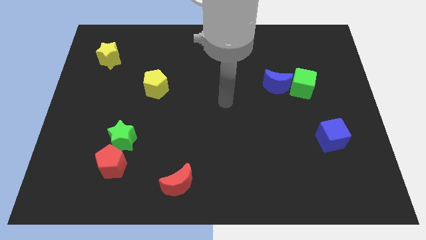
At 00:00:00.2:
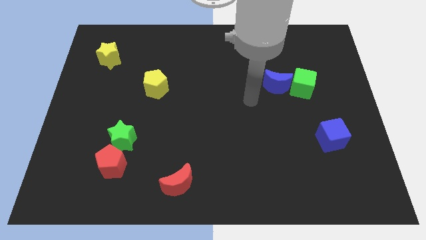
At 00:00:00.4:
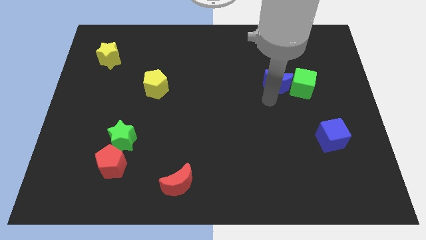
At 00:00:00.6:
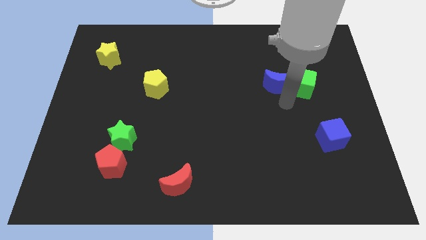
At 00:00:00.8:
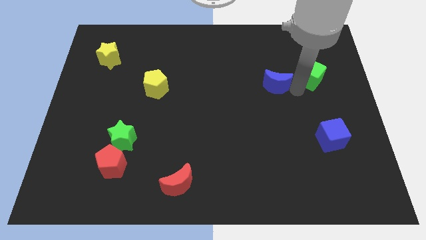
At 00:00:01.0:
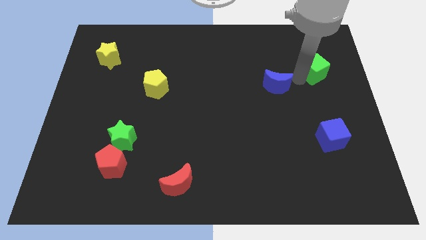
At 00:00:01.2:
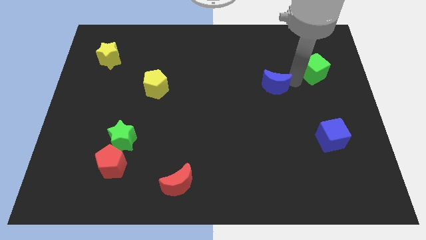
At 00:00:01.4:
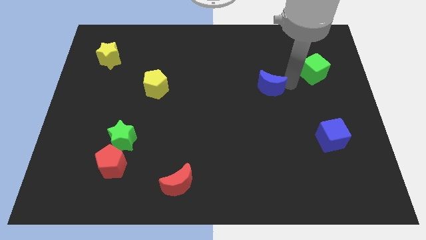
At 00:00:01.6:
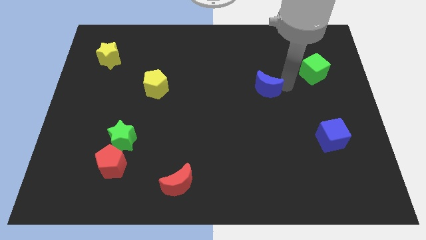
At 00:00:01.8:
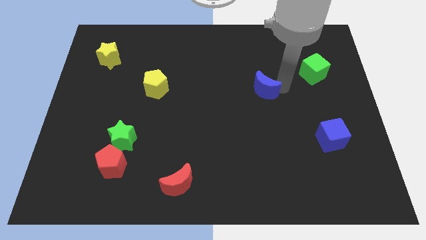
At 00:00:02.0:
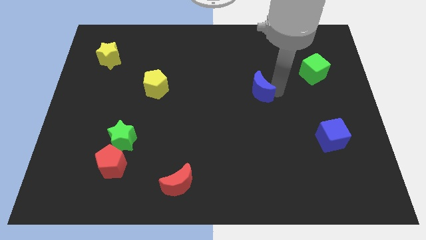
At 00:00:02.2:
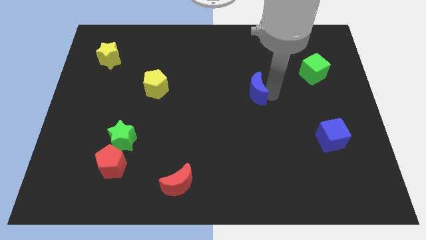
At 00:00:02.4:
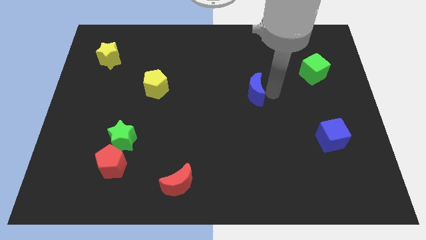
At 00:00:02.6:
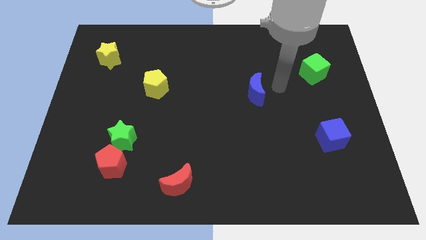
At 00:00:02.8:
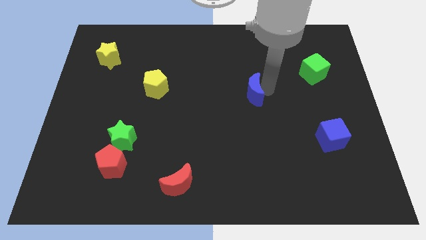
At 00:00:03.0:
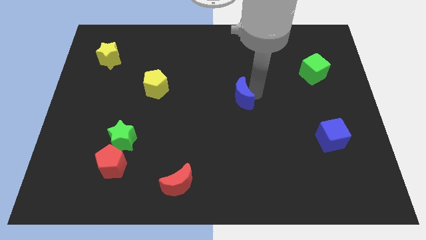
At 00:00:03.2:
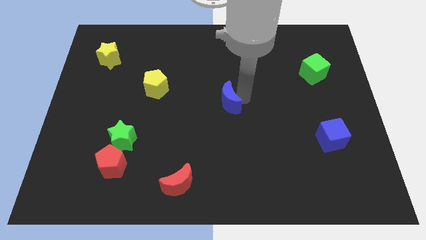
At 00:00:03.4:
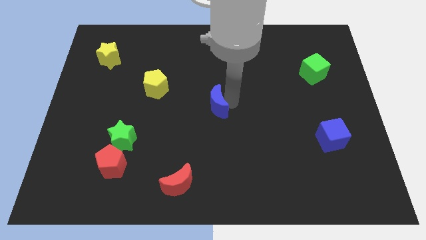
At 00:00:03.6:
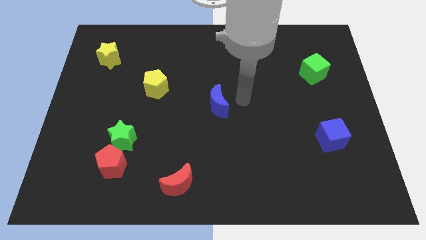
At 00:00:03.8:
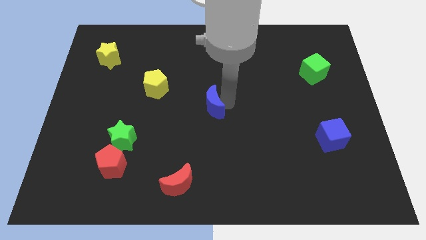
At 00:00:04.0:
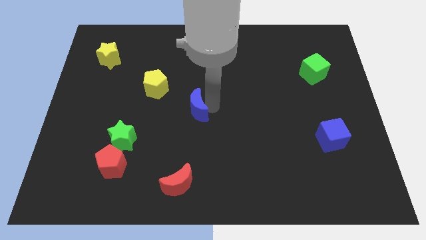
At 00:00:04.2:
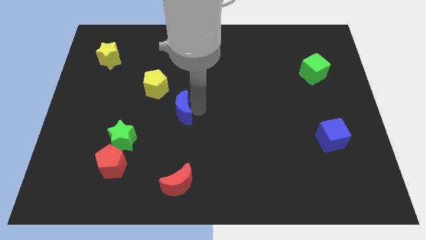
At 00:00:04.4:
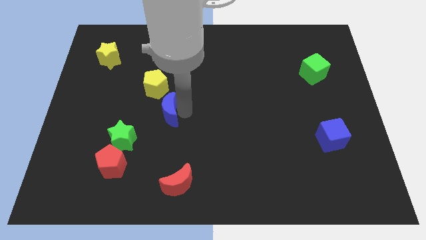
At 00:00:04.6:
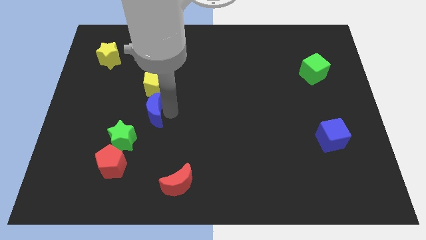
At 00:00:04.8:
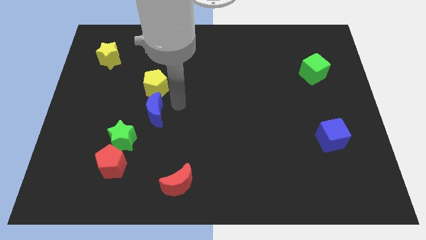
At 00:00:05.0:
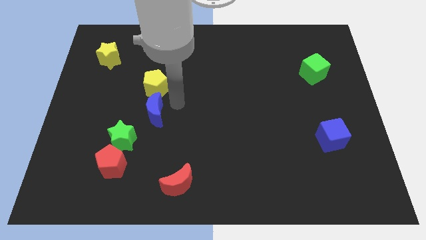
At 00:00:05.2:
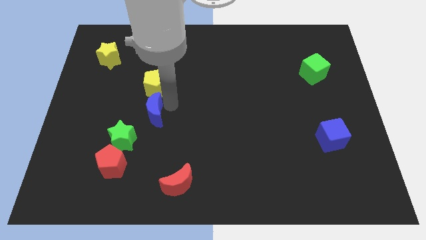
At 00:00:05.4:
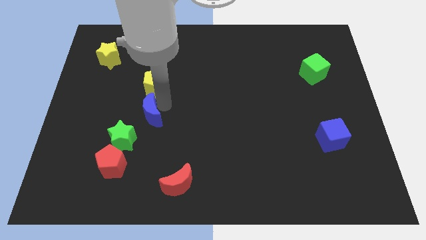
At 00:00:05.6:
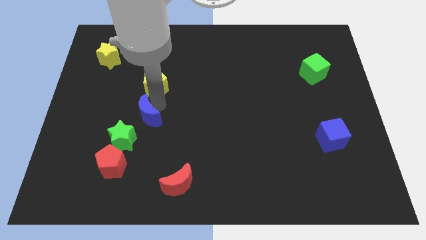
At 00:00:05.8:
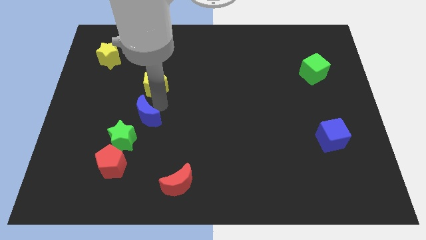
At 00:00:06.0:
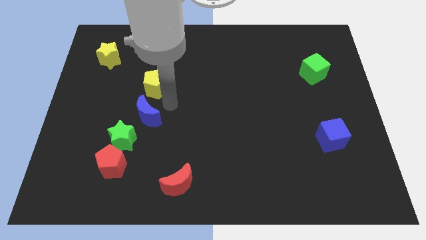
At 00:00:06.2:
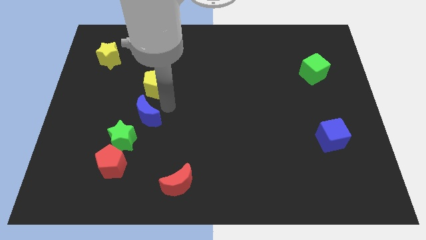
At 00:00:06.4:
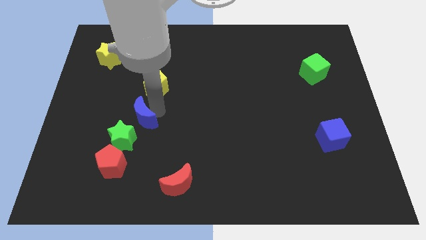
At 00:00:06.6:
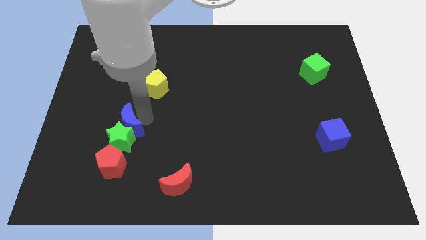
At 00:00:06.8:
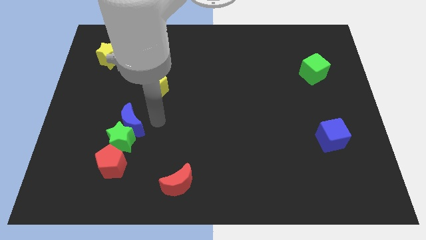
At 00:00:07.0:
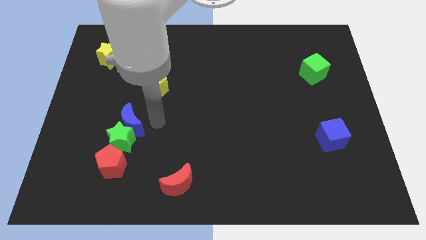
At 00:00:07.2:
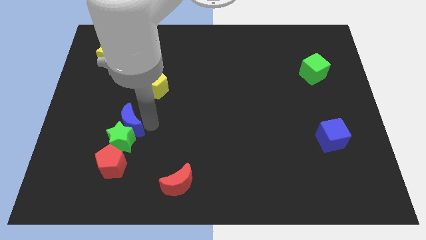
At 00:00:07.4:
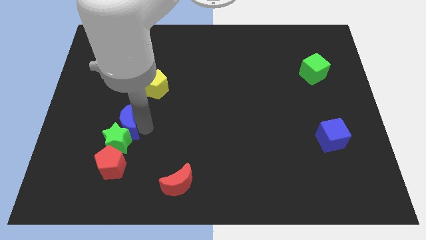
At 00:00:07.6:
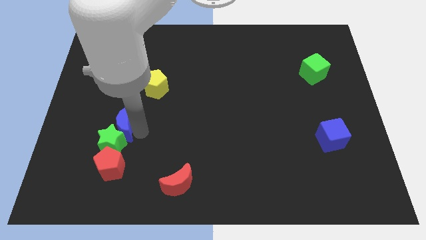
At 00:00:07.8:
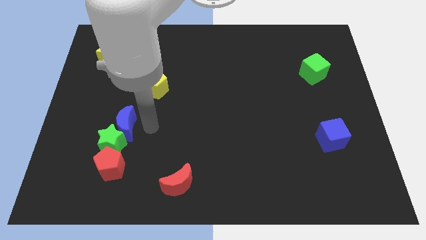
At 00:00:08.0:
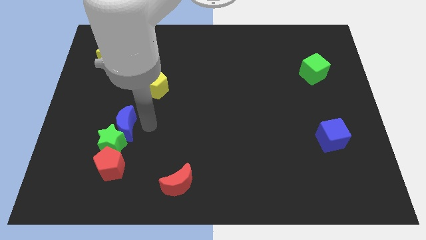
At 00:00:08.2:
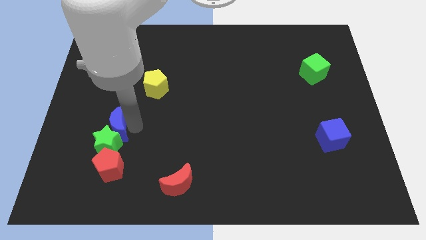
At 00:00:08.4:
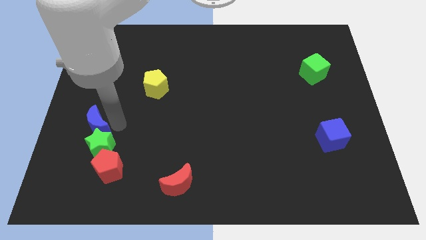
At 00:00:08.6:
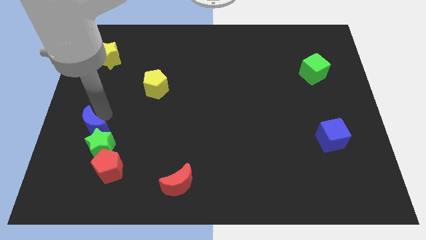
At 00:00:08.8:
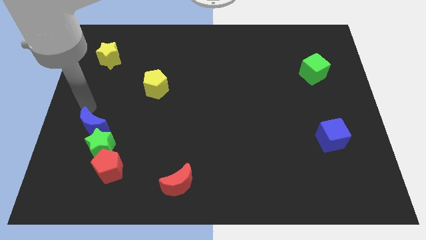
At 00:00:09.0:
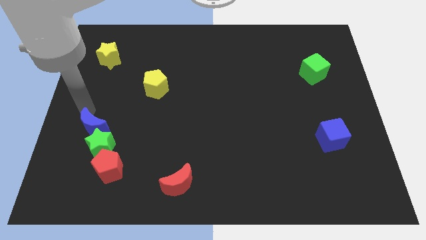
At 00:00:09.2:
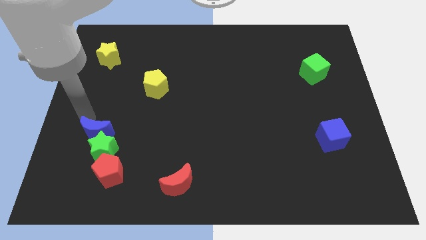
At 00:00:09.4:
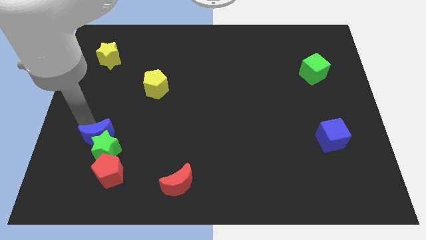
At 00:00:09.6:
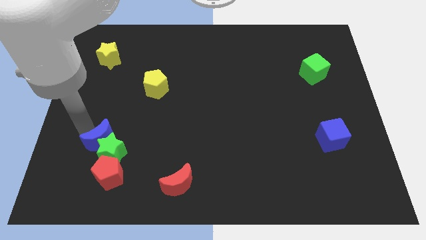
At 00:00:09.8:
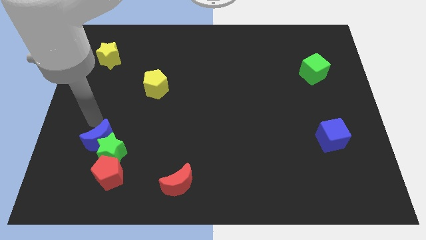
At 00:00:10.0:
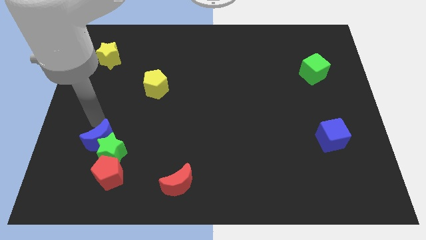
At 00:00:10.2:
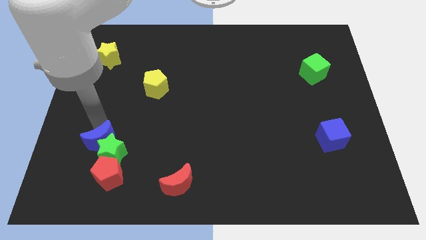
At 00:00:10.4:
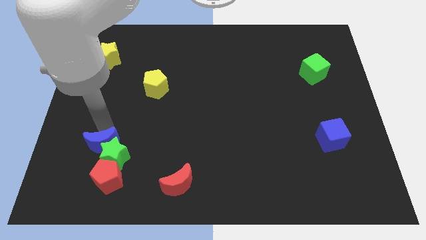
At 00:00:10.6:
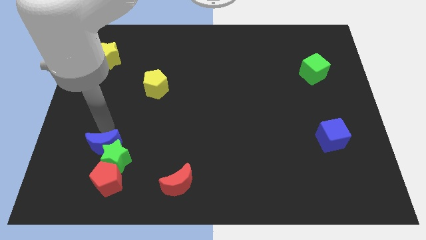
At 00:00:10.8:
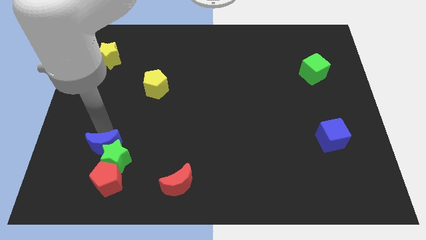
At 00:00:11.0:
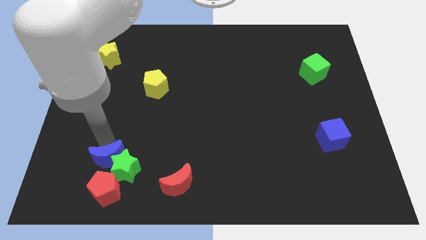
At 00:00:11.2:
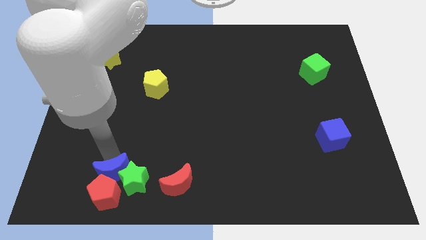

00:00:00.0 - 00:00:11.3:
slide the blue moon towards the red pentagon

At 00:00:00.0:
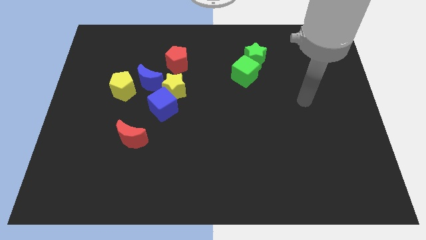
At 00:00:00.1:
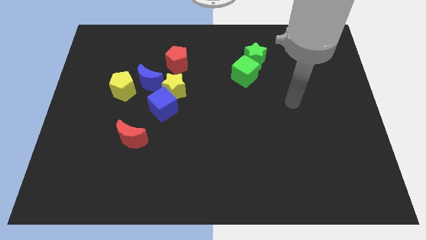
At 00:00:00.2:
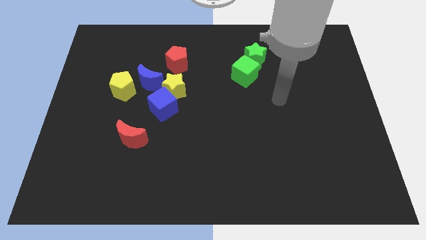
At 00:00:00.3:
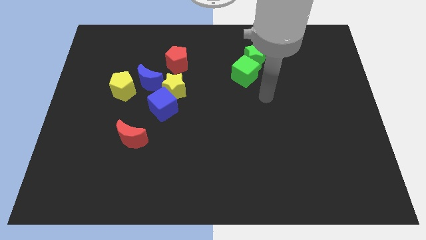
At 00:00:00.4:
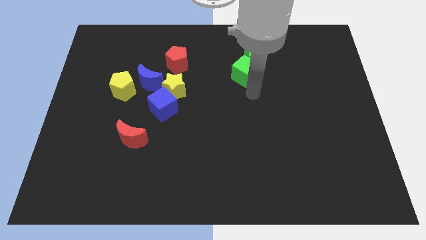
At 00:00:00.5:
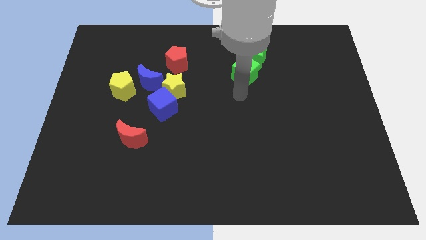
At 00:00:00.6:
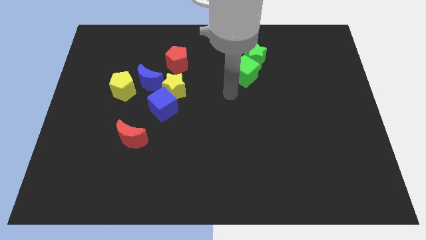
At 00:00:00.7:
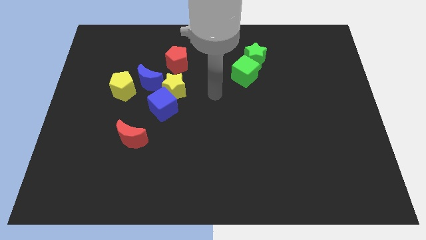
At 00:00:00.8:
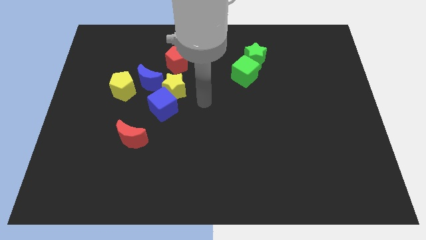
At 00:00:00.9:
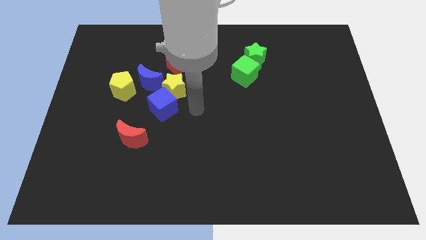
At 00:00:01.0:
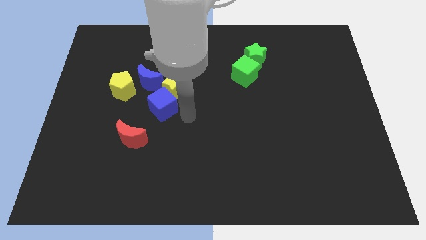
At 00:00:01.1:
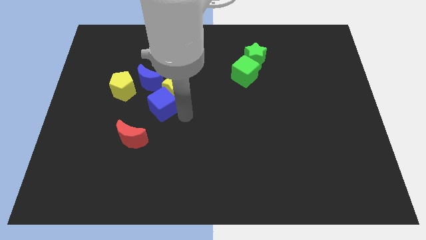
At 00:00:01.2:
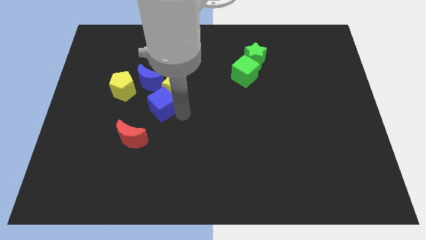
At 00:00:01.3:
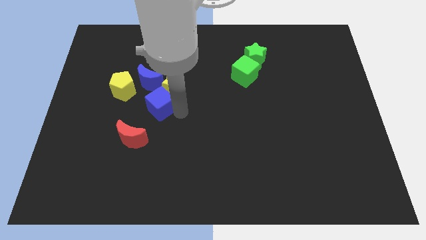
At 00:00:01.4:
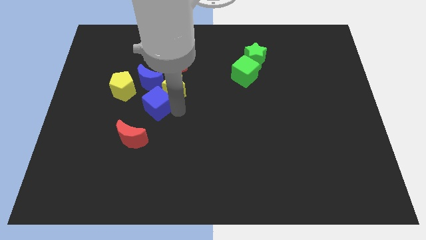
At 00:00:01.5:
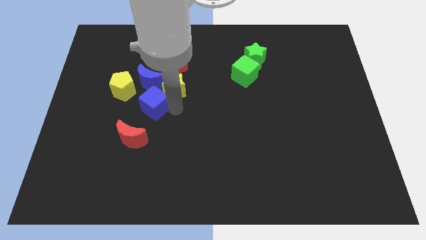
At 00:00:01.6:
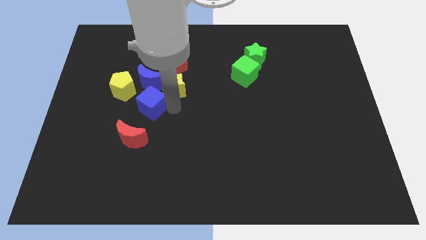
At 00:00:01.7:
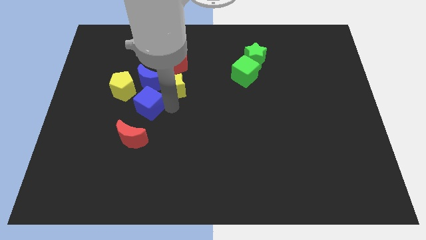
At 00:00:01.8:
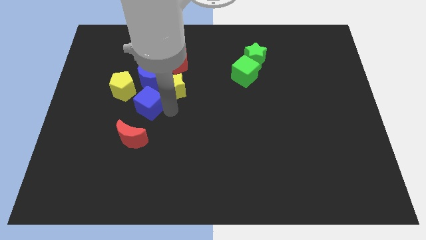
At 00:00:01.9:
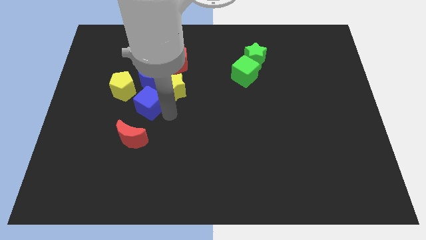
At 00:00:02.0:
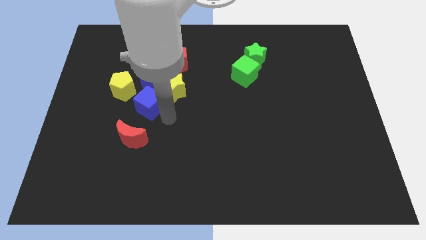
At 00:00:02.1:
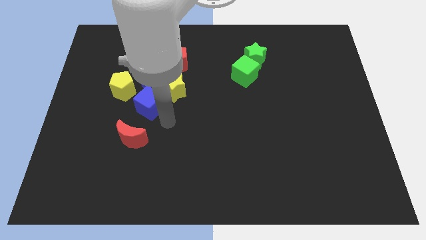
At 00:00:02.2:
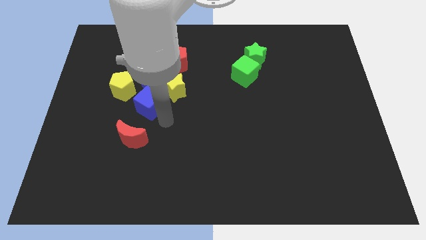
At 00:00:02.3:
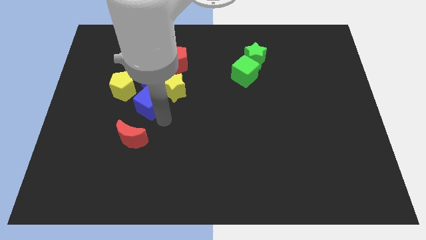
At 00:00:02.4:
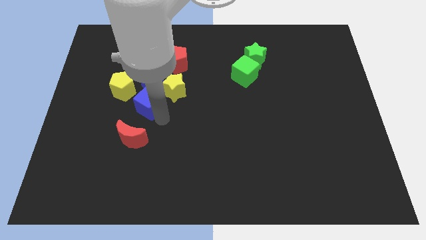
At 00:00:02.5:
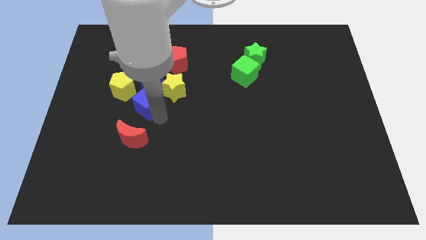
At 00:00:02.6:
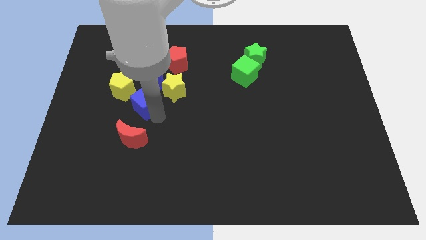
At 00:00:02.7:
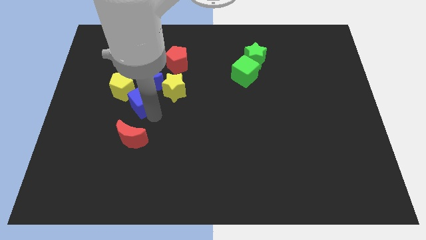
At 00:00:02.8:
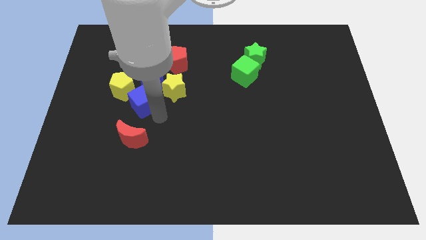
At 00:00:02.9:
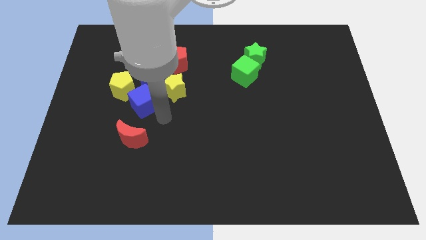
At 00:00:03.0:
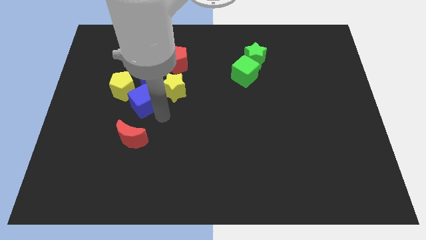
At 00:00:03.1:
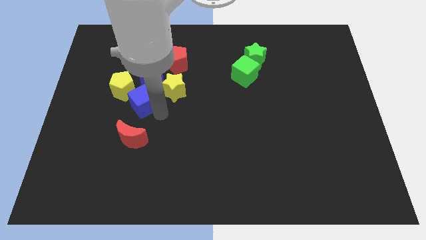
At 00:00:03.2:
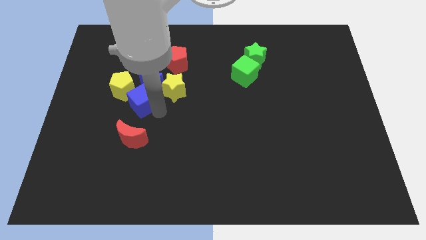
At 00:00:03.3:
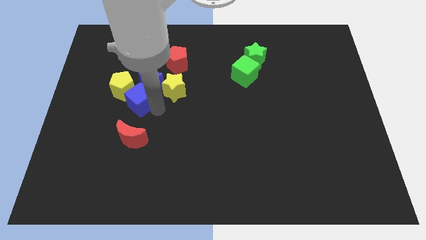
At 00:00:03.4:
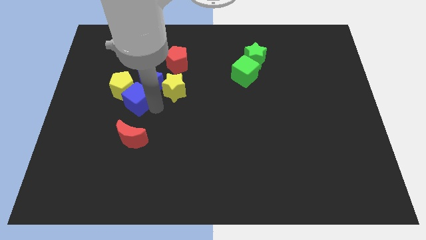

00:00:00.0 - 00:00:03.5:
move the blue cube close to the yellow pentagon
